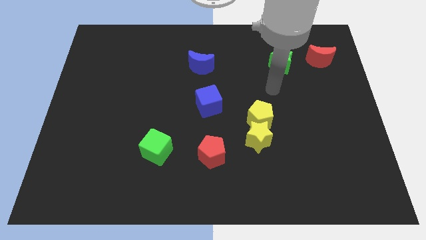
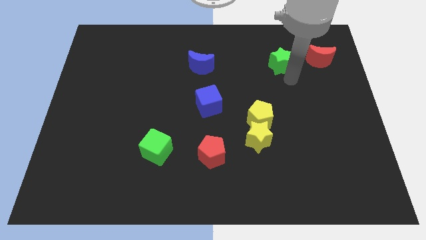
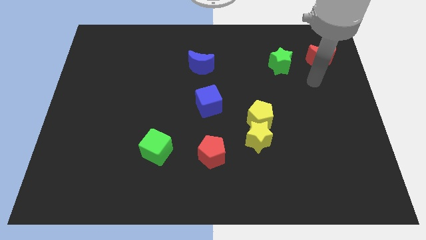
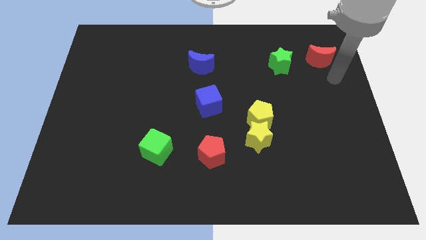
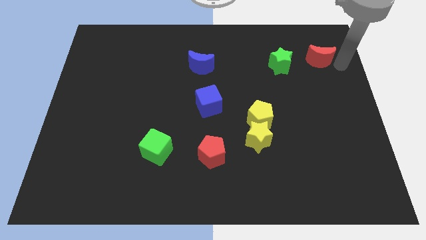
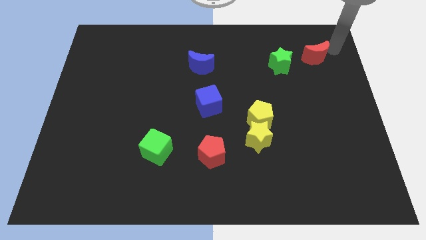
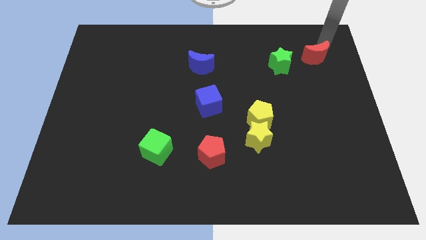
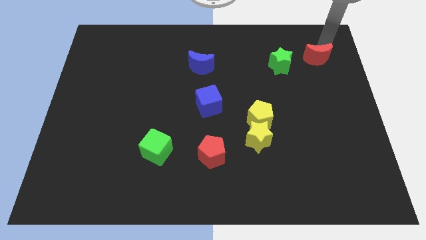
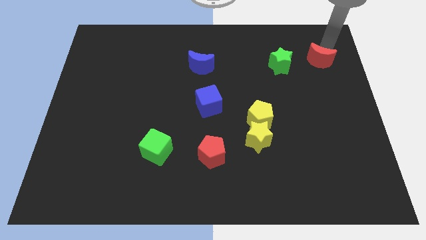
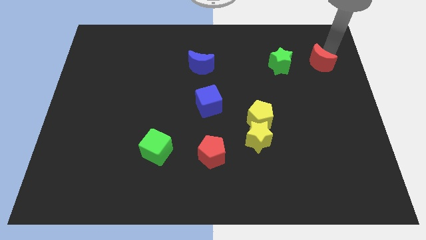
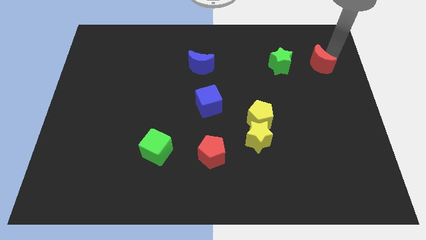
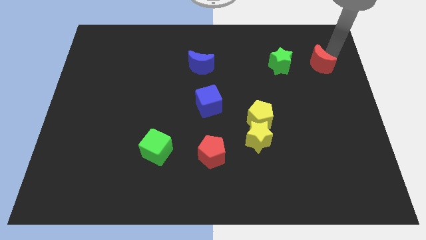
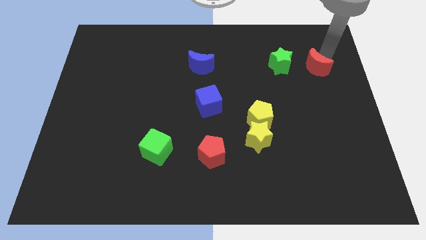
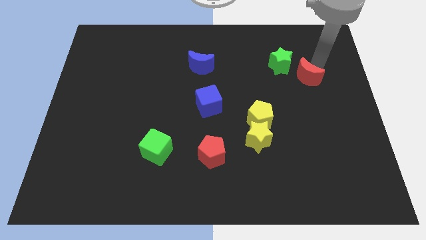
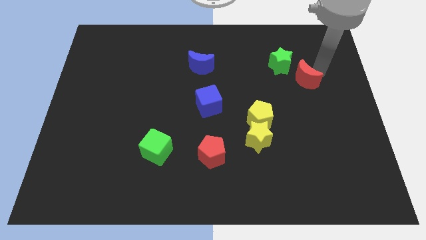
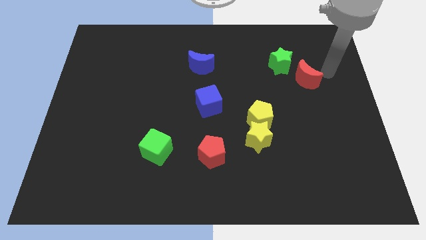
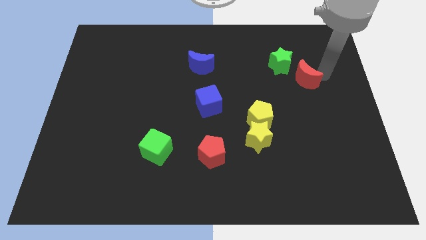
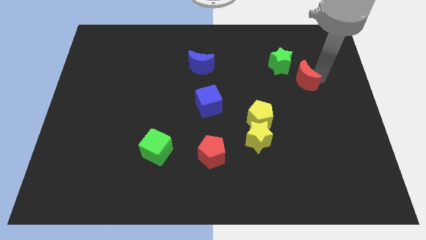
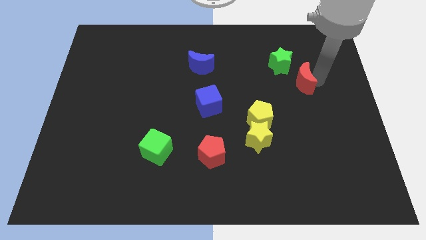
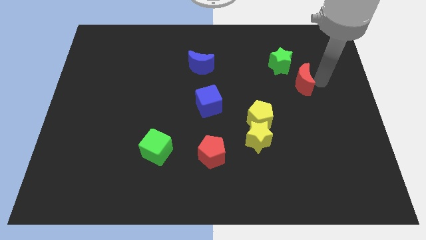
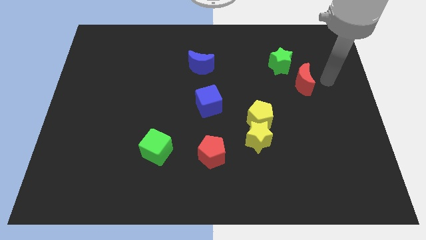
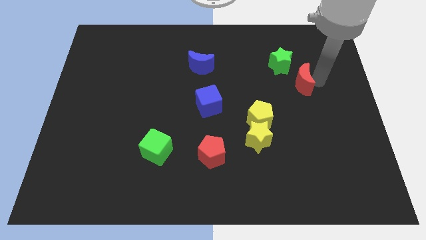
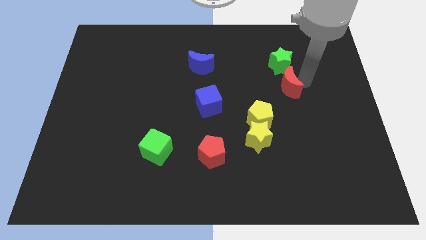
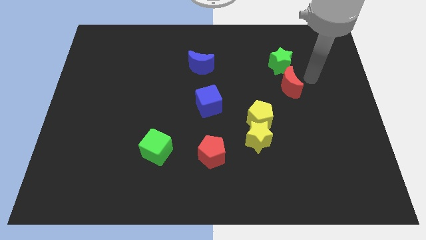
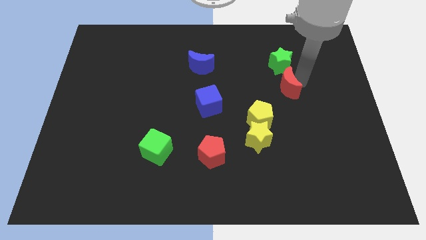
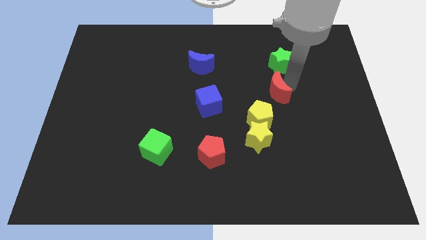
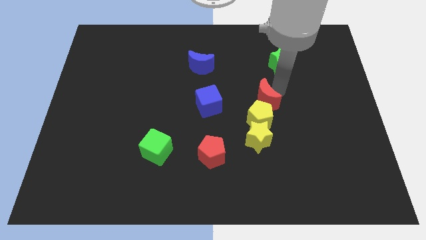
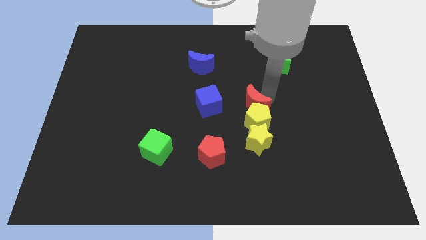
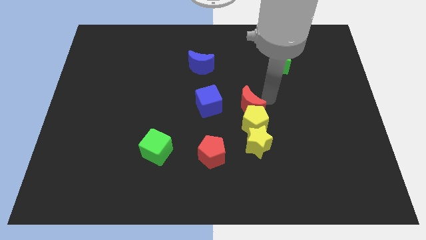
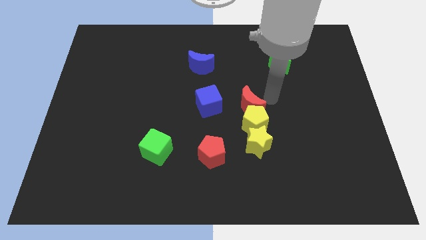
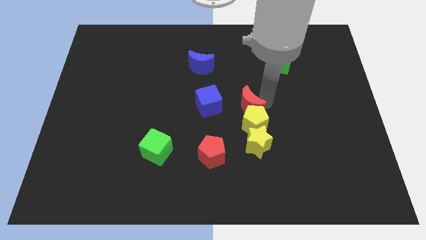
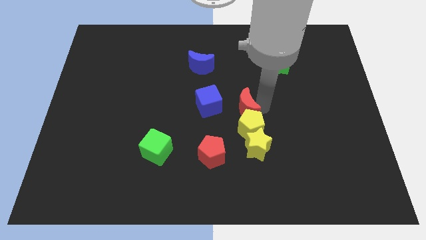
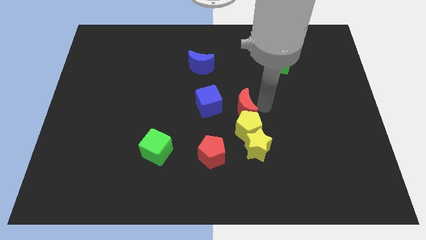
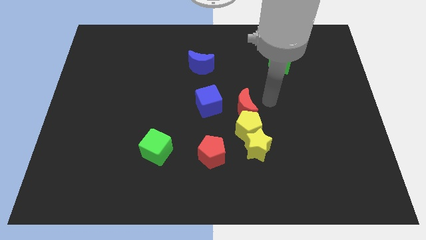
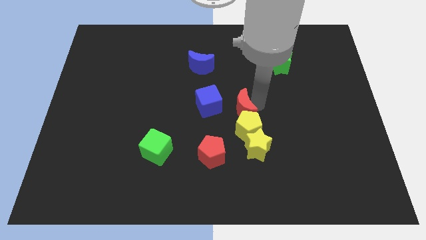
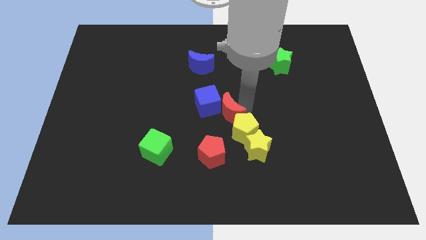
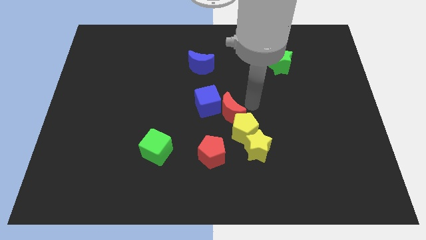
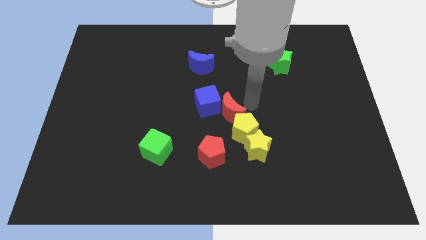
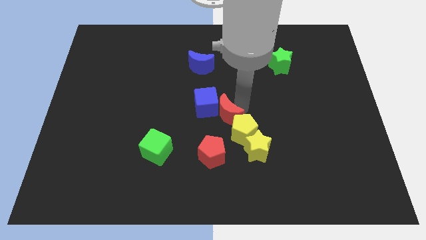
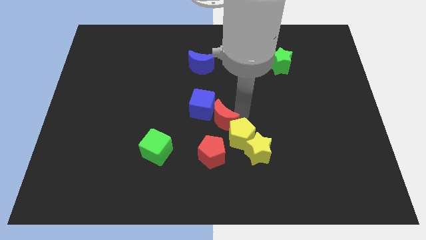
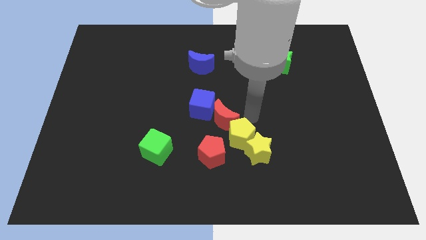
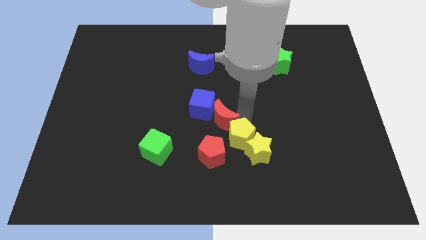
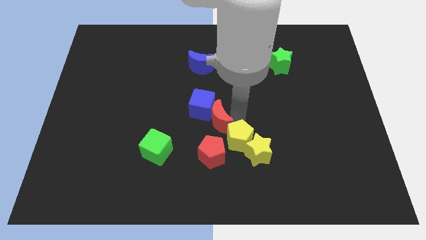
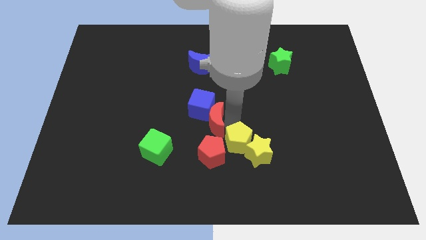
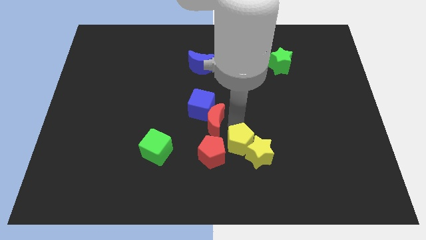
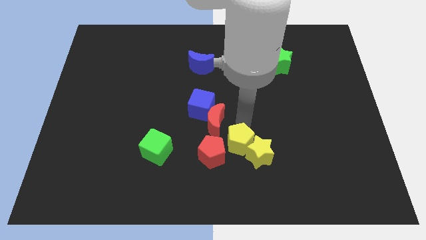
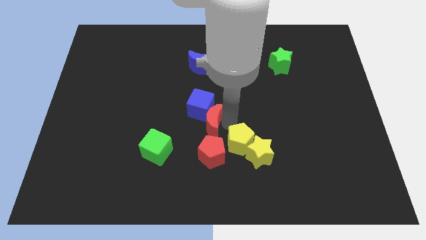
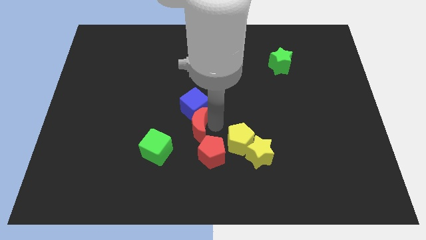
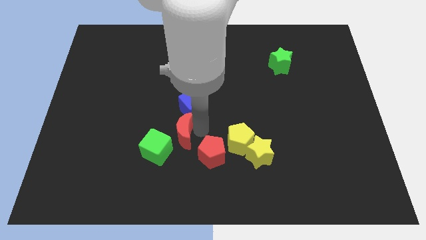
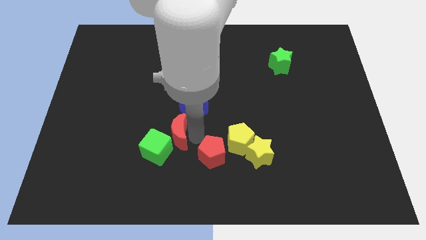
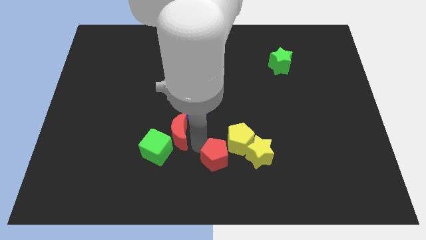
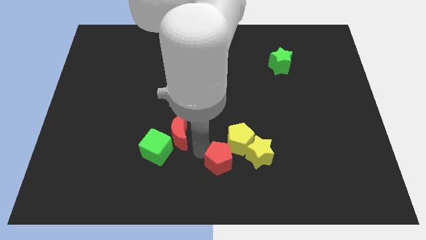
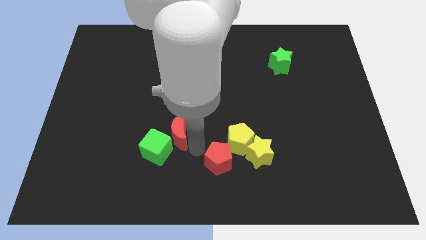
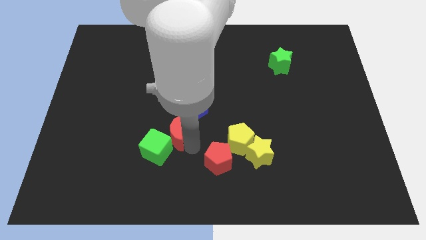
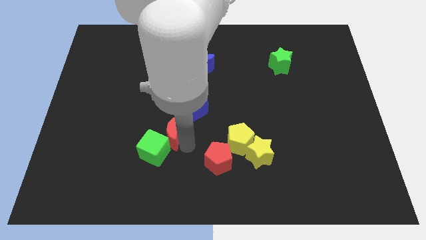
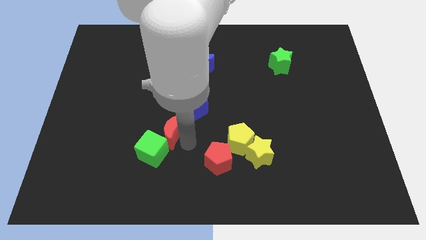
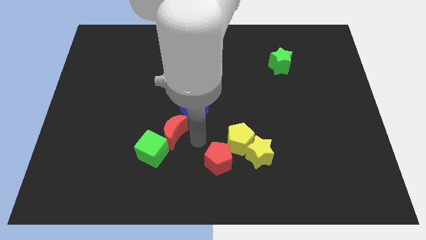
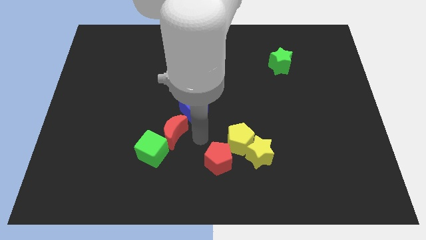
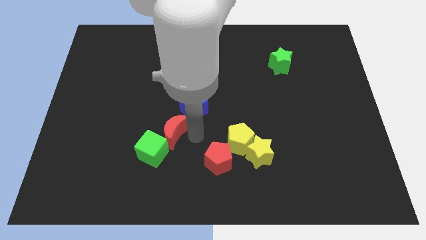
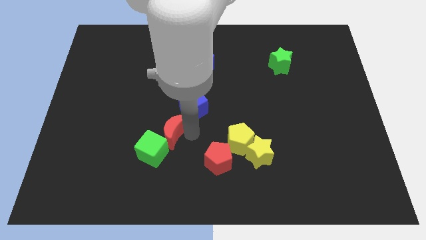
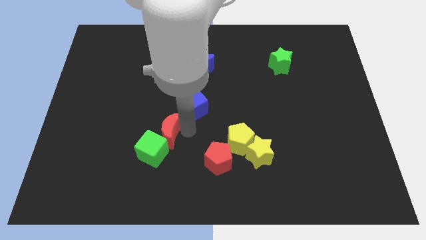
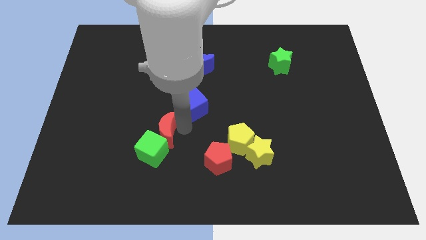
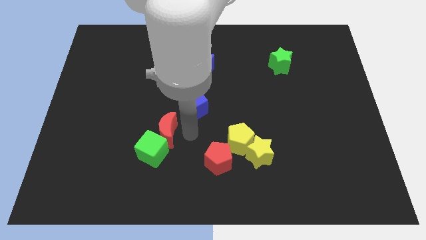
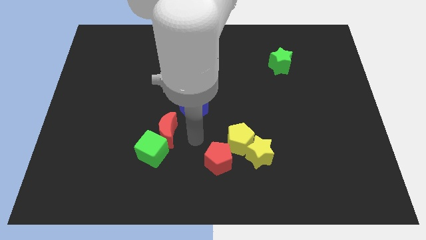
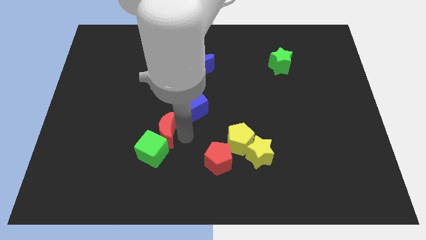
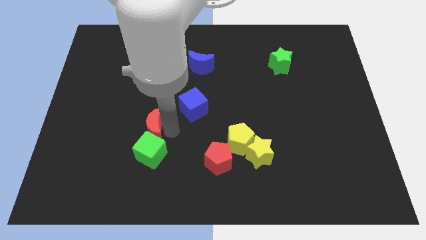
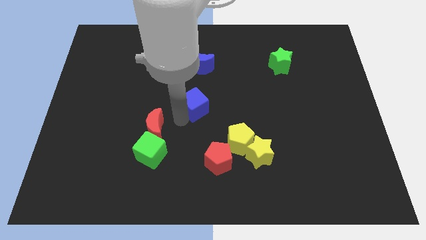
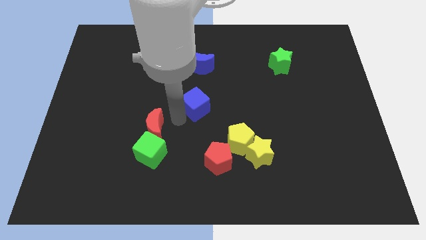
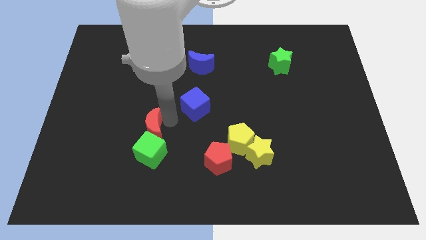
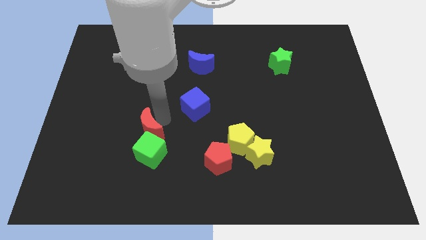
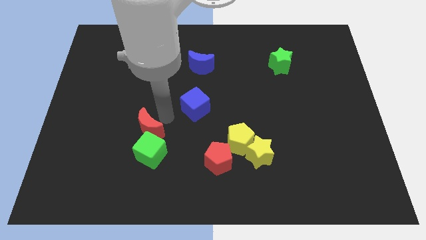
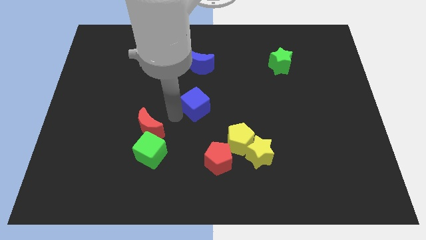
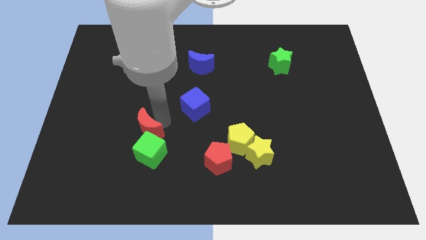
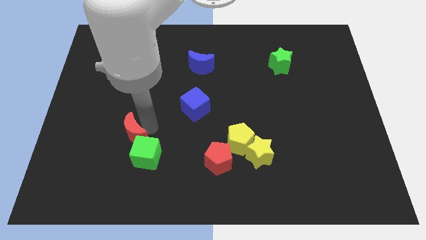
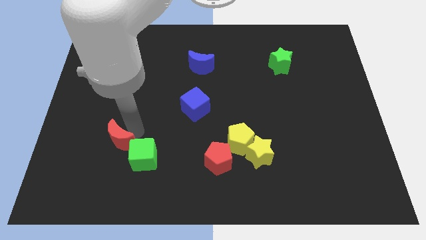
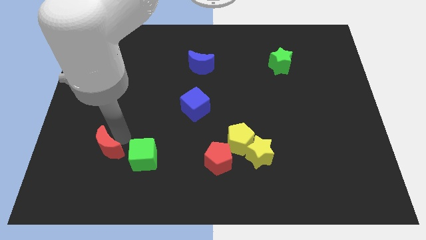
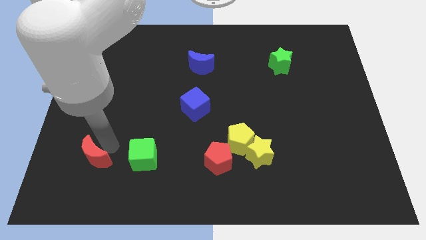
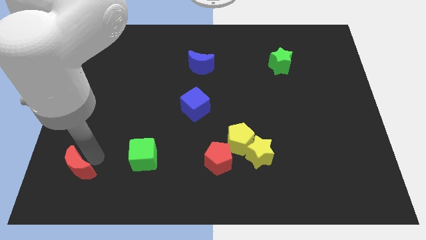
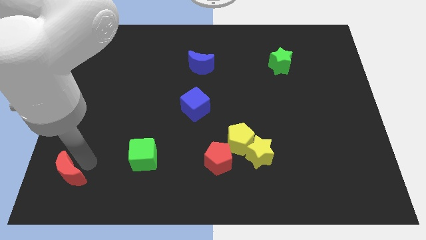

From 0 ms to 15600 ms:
put the red moon to the lower left corner
